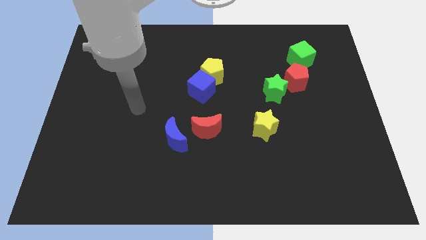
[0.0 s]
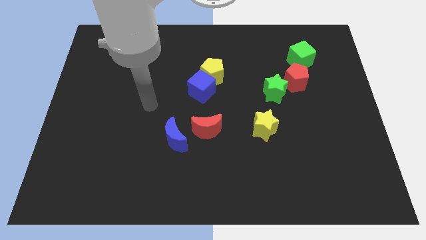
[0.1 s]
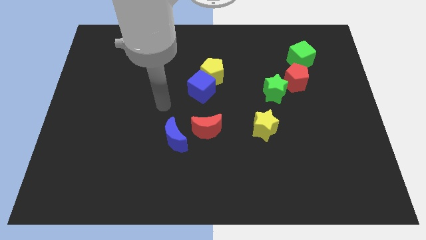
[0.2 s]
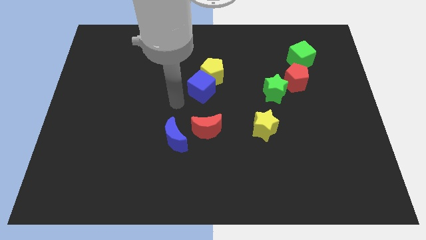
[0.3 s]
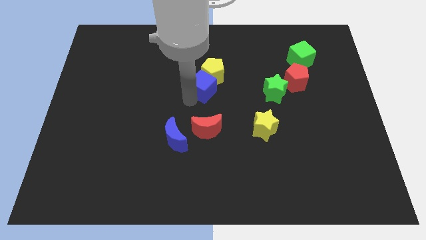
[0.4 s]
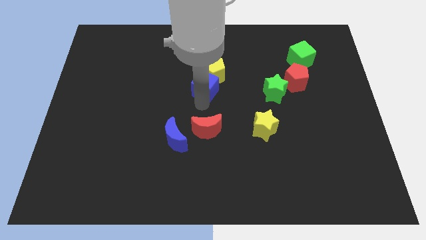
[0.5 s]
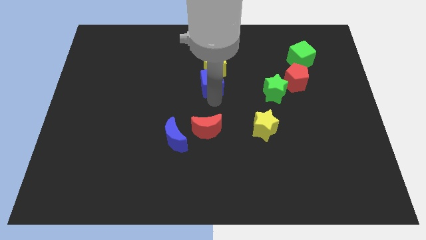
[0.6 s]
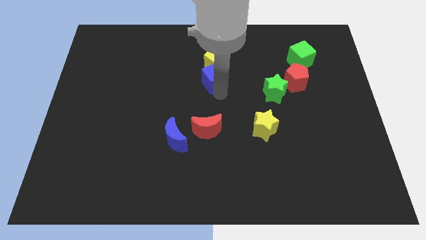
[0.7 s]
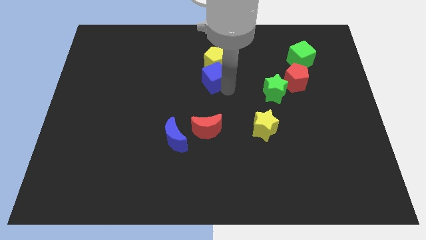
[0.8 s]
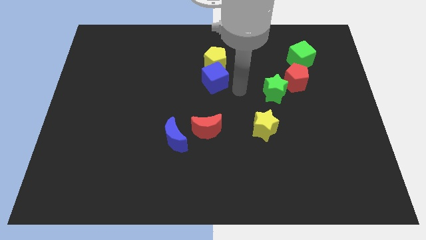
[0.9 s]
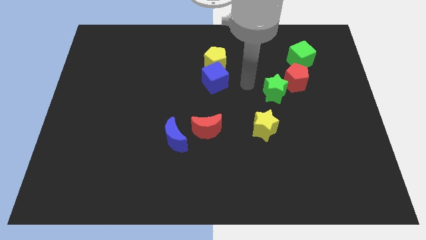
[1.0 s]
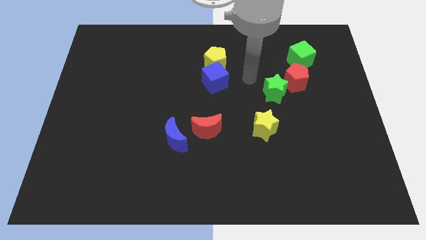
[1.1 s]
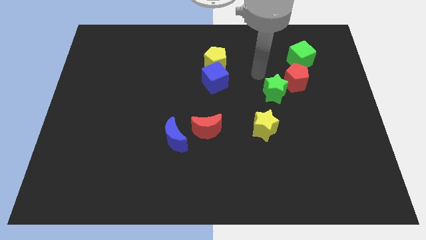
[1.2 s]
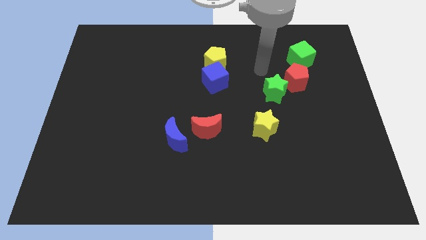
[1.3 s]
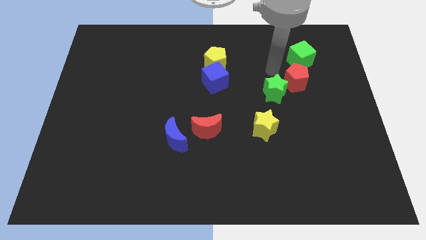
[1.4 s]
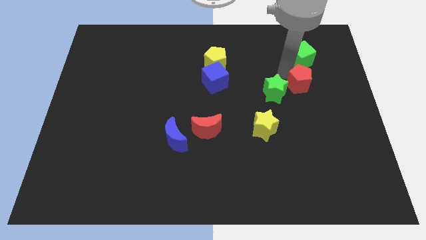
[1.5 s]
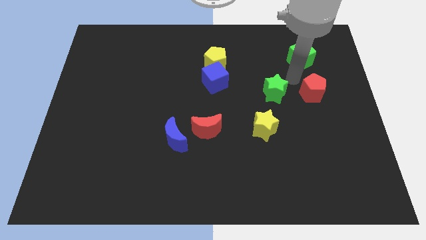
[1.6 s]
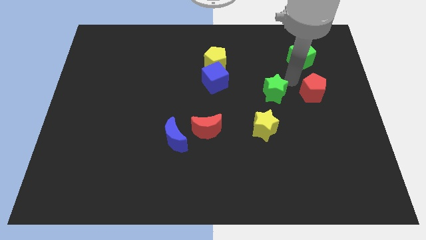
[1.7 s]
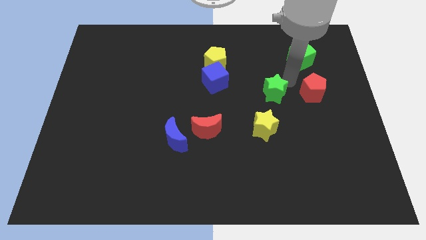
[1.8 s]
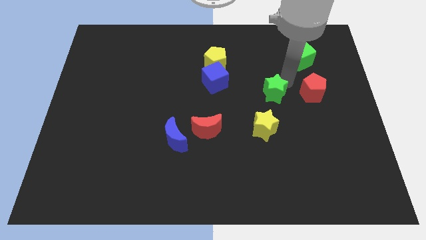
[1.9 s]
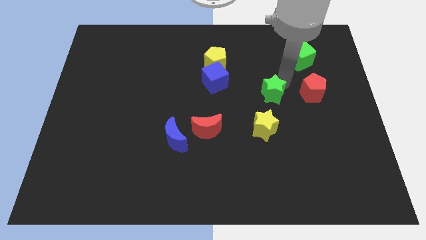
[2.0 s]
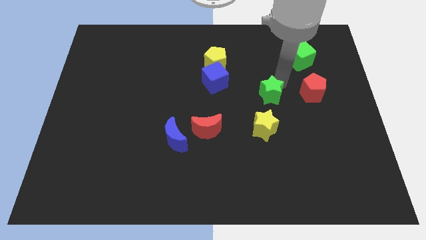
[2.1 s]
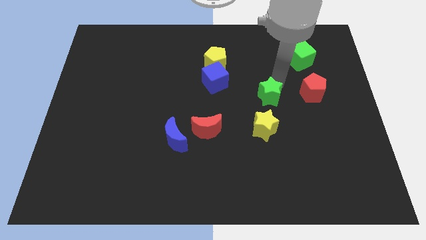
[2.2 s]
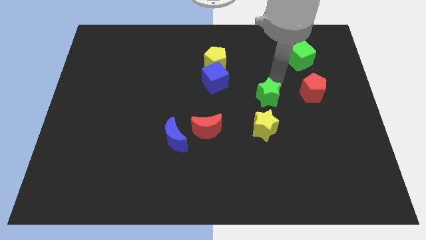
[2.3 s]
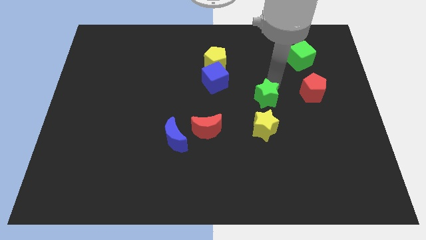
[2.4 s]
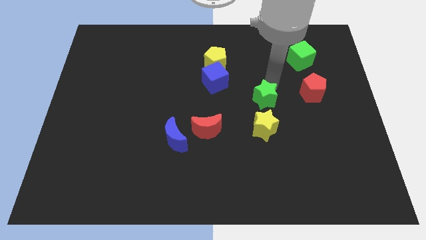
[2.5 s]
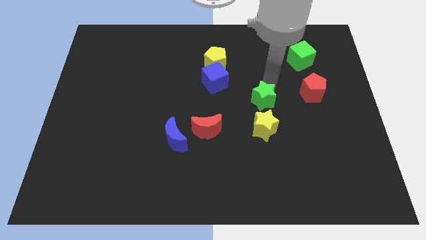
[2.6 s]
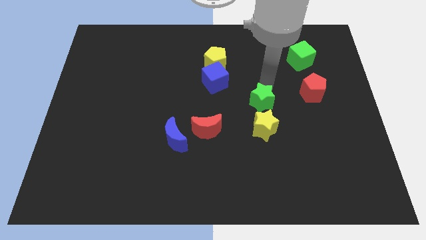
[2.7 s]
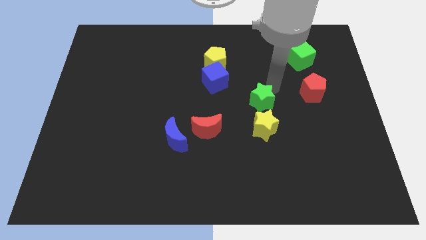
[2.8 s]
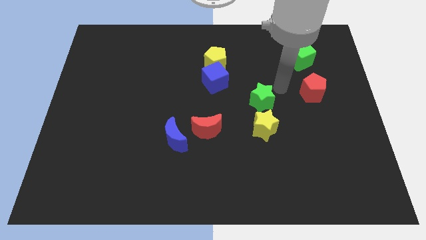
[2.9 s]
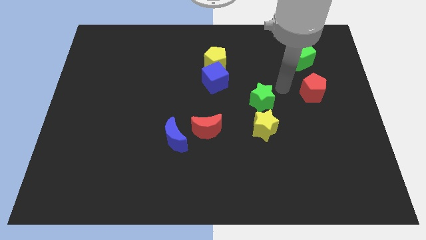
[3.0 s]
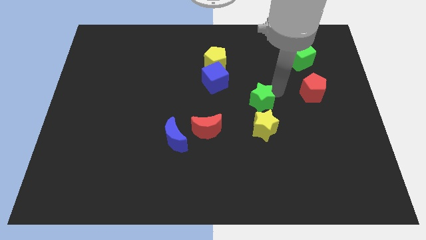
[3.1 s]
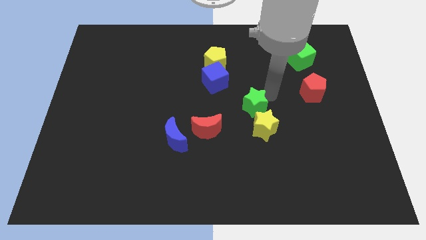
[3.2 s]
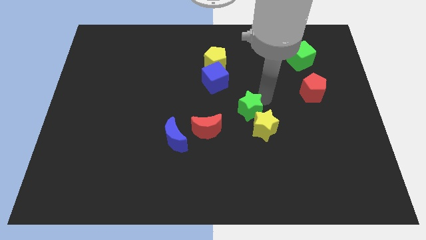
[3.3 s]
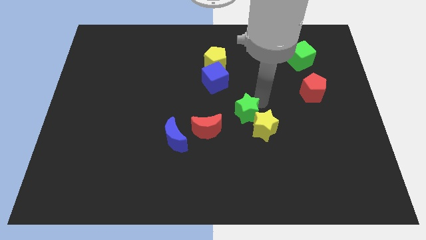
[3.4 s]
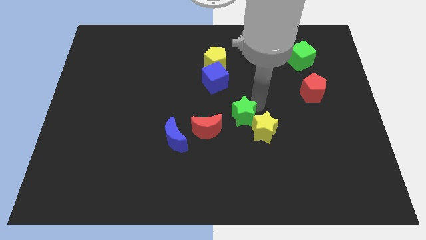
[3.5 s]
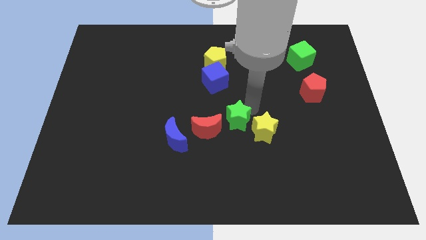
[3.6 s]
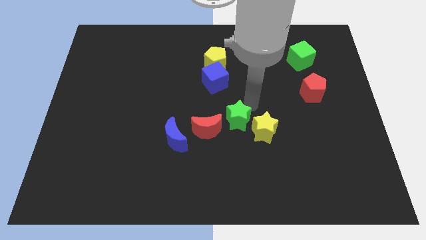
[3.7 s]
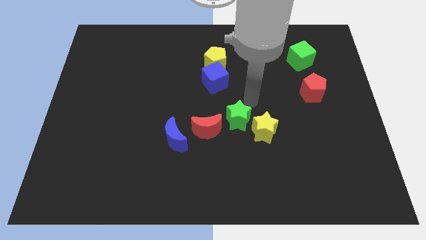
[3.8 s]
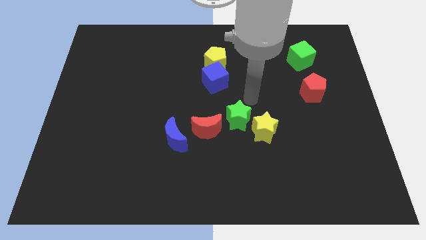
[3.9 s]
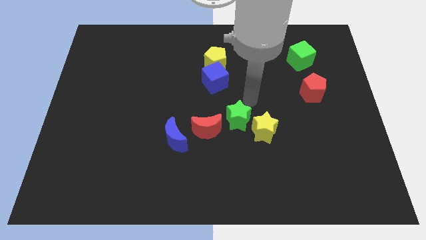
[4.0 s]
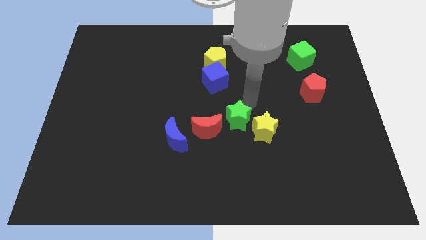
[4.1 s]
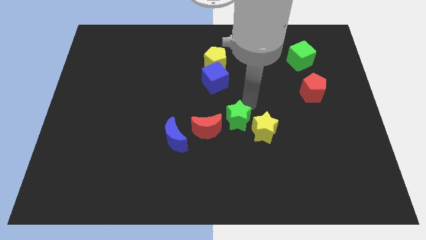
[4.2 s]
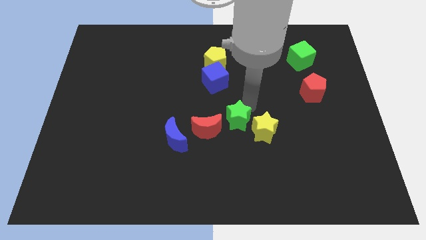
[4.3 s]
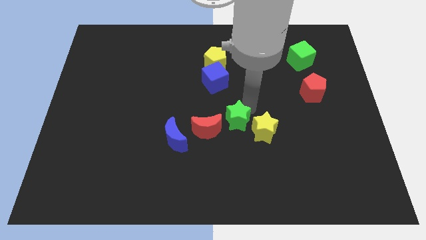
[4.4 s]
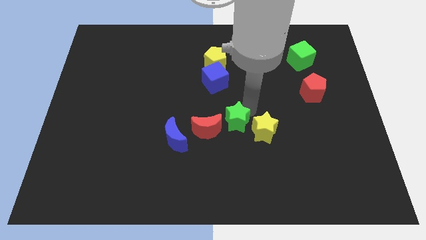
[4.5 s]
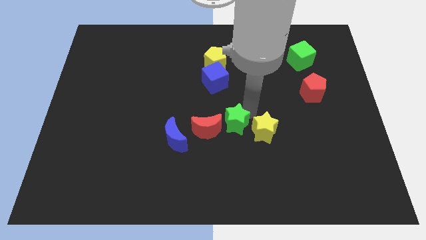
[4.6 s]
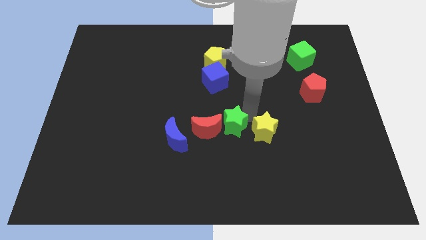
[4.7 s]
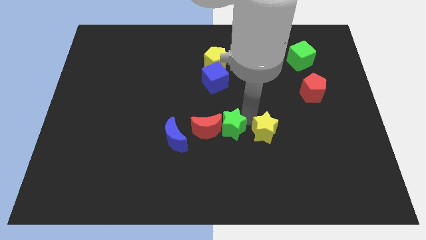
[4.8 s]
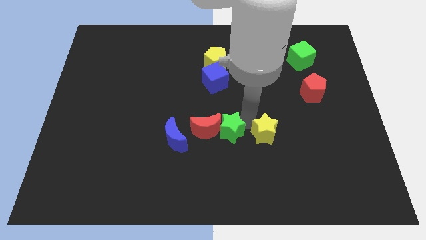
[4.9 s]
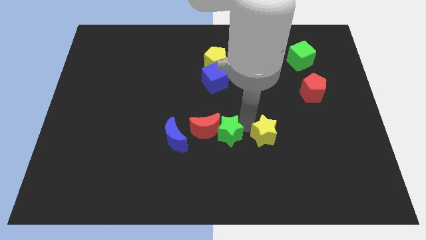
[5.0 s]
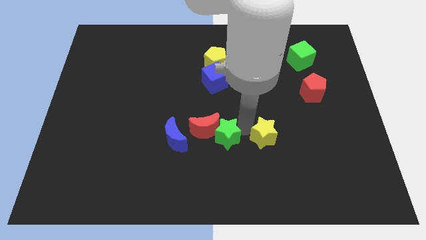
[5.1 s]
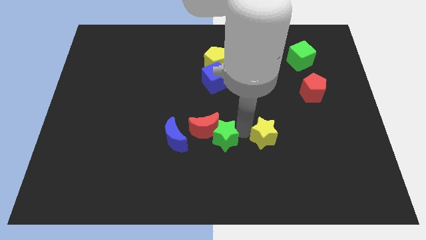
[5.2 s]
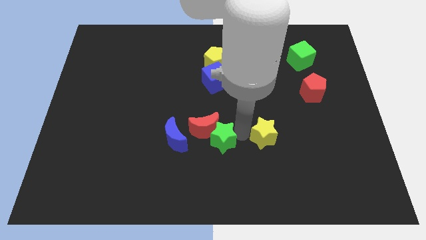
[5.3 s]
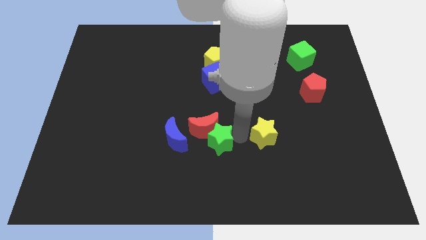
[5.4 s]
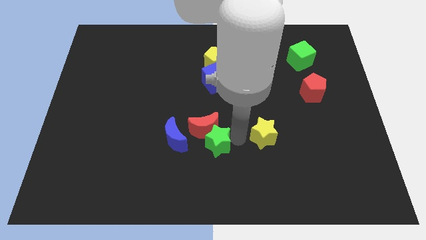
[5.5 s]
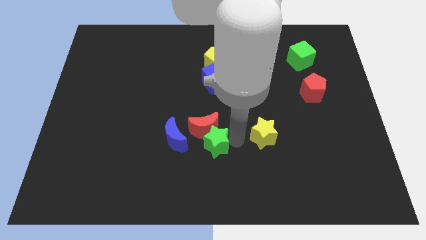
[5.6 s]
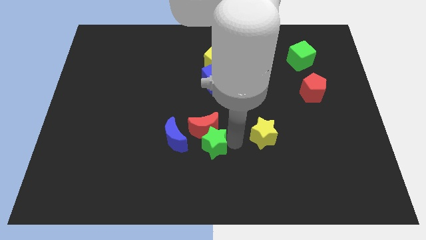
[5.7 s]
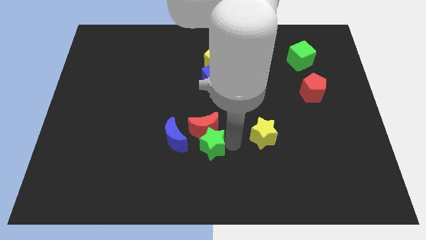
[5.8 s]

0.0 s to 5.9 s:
slide the green star diagonally down and to the left of the red moon

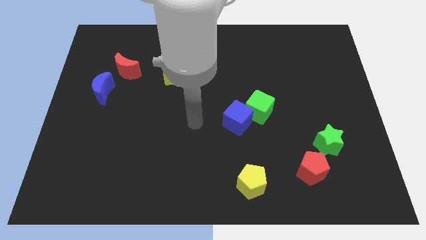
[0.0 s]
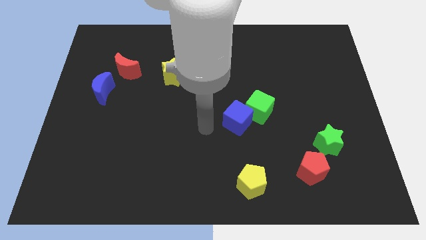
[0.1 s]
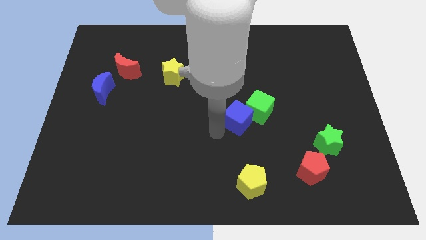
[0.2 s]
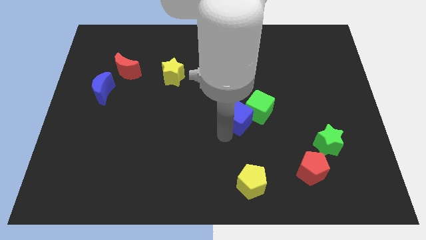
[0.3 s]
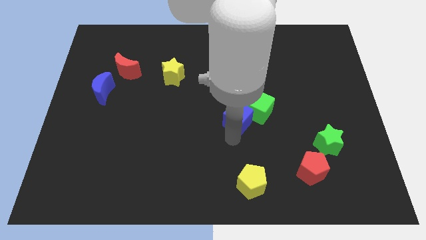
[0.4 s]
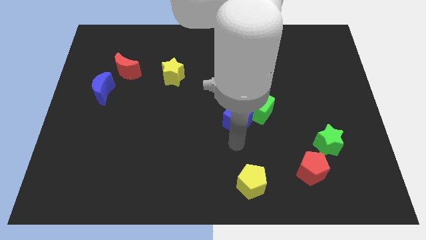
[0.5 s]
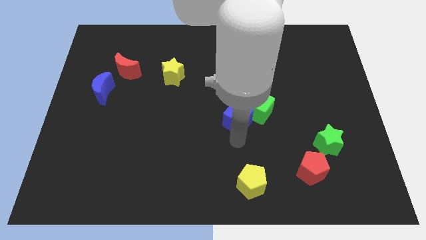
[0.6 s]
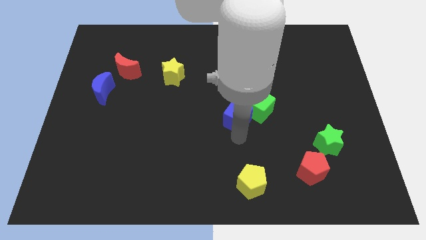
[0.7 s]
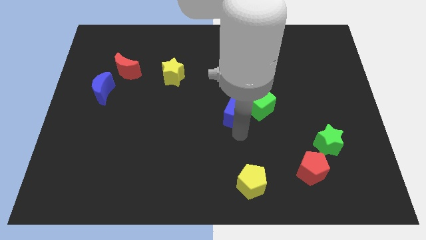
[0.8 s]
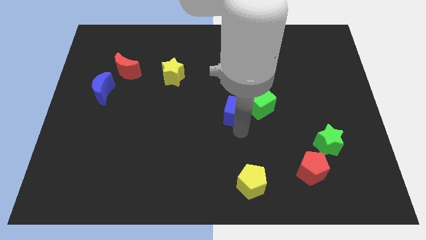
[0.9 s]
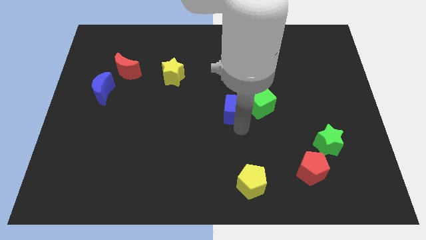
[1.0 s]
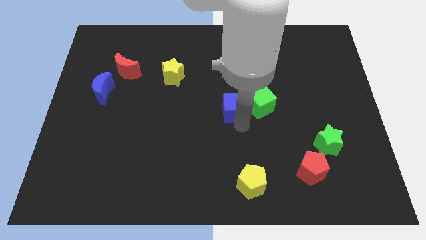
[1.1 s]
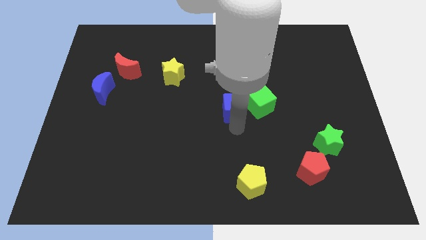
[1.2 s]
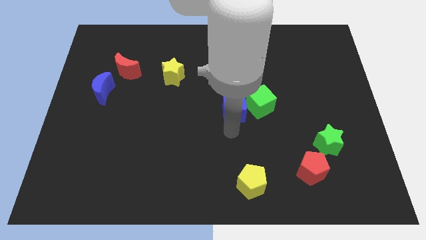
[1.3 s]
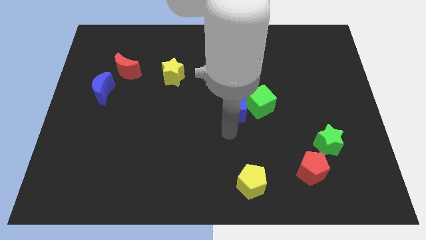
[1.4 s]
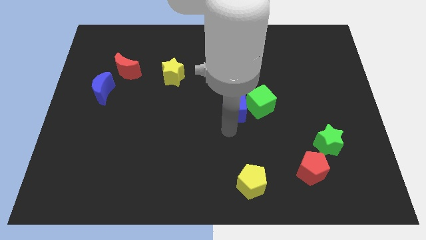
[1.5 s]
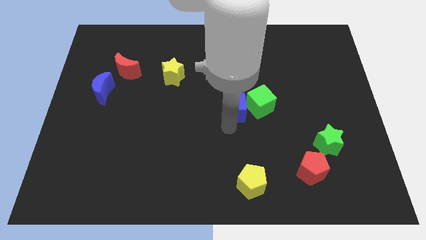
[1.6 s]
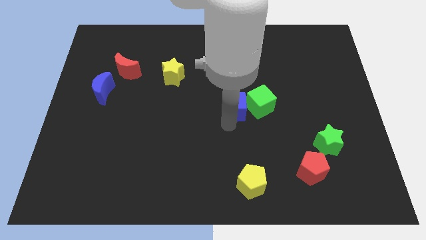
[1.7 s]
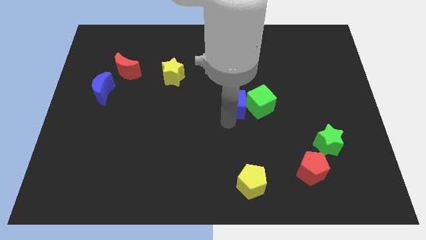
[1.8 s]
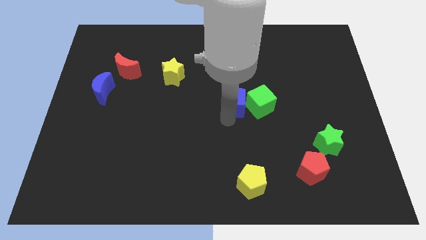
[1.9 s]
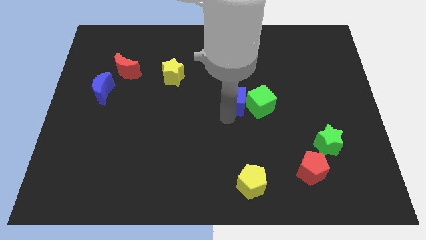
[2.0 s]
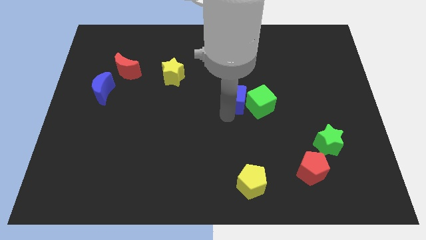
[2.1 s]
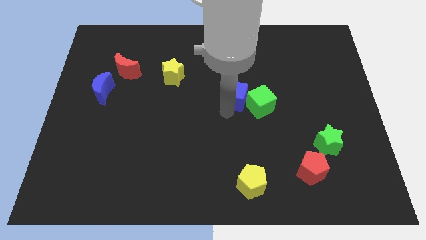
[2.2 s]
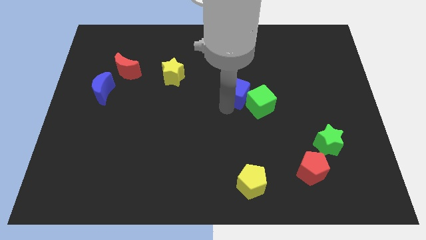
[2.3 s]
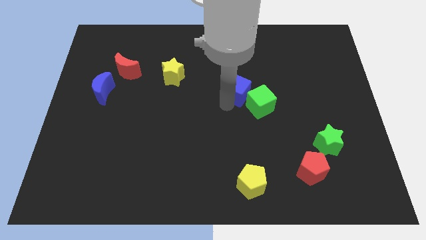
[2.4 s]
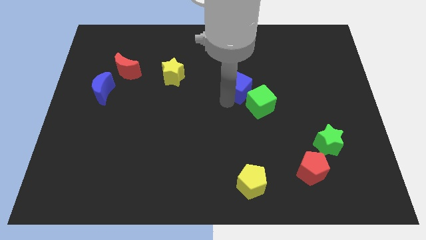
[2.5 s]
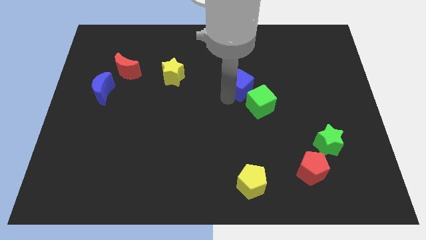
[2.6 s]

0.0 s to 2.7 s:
slide the blue cube to the top of the green cube
